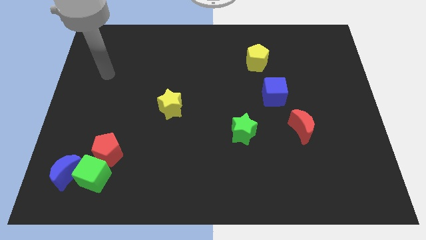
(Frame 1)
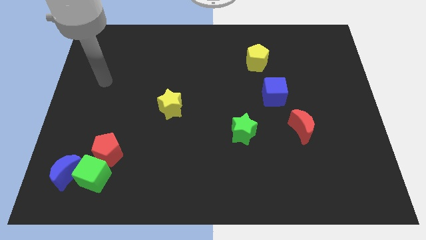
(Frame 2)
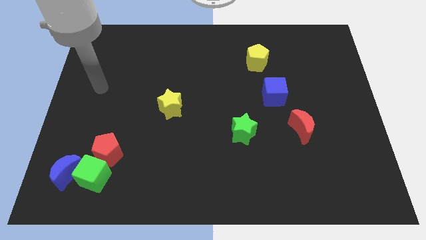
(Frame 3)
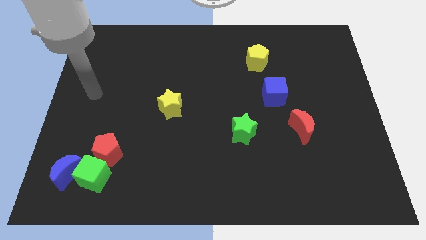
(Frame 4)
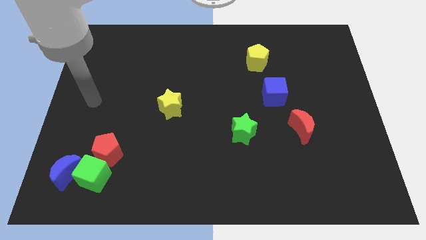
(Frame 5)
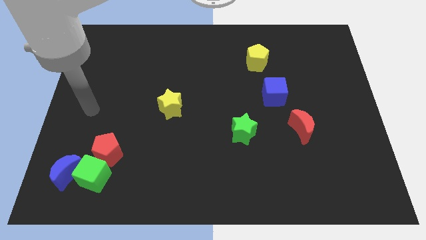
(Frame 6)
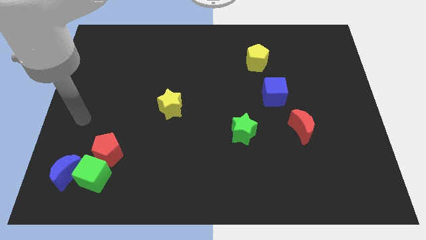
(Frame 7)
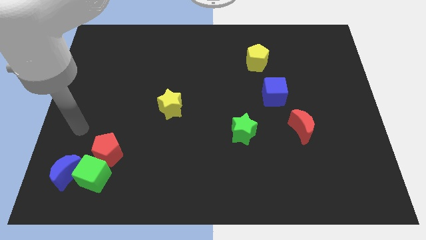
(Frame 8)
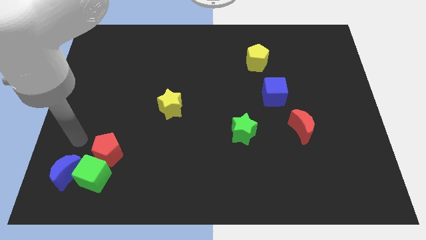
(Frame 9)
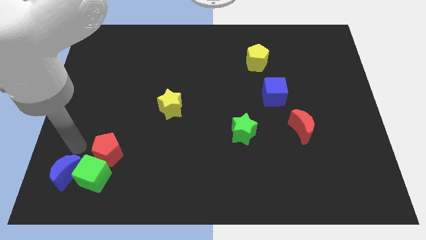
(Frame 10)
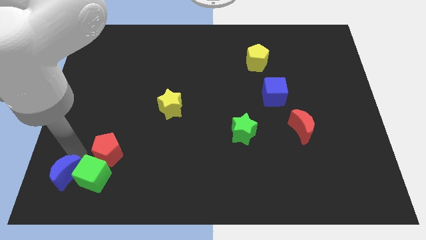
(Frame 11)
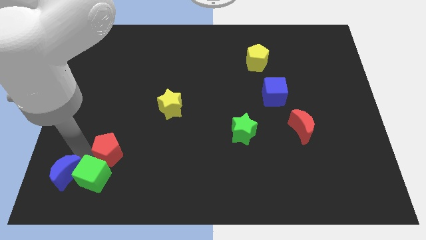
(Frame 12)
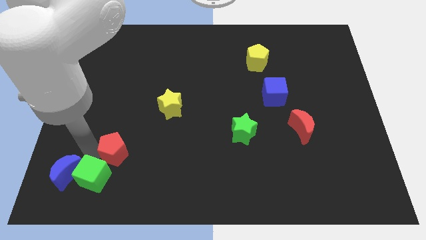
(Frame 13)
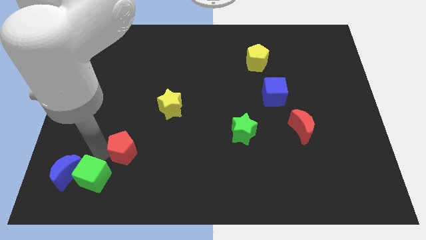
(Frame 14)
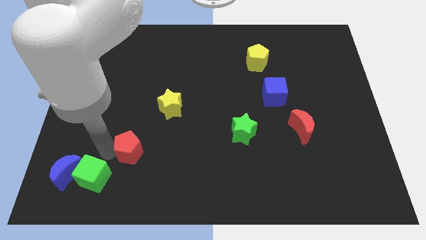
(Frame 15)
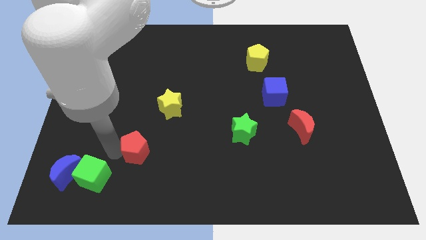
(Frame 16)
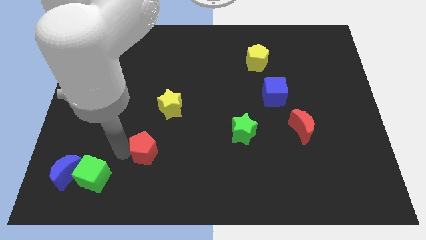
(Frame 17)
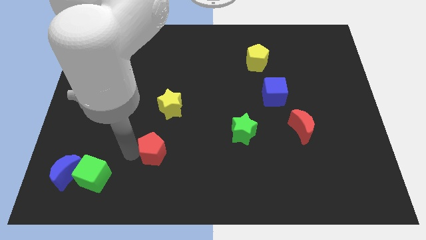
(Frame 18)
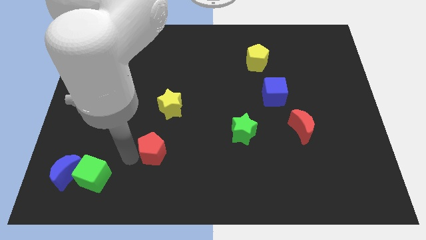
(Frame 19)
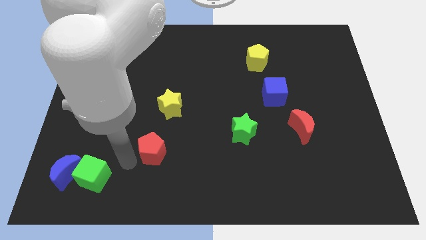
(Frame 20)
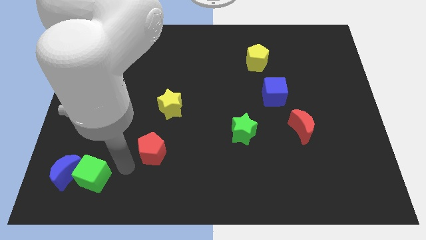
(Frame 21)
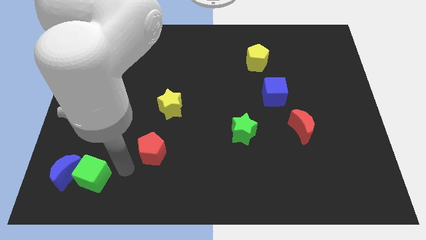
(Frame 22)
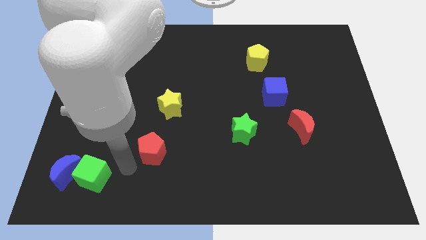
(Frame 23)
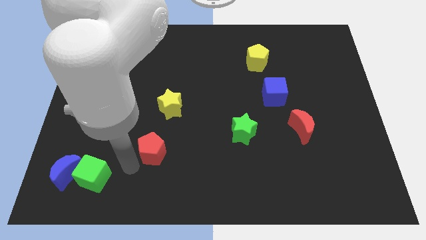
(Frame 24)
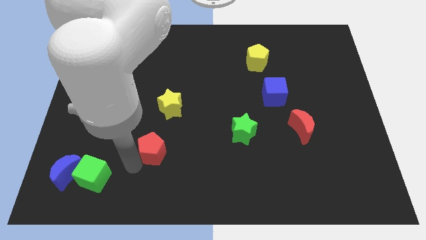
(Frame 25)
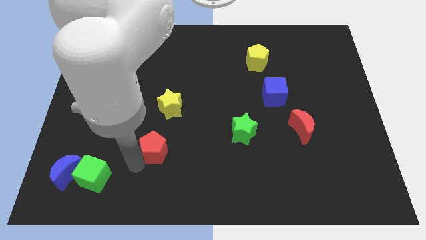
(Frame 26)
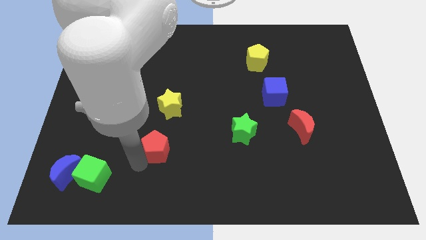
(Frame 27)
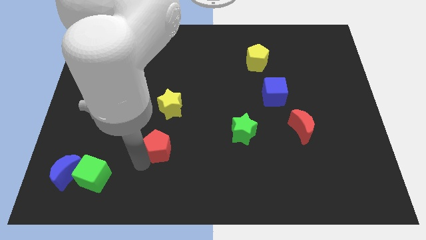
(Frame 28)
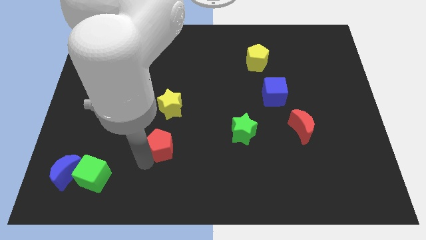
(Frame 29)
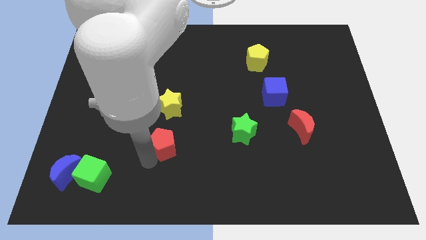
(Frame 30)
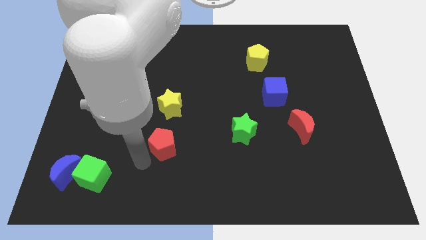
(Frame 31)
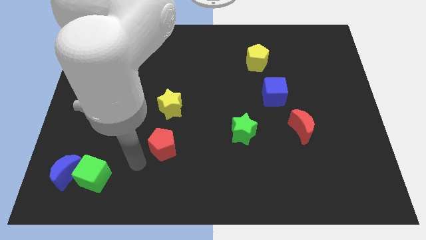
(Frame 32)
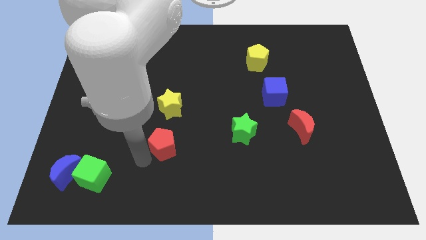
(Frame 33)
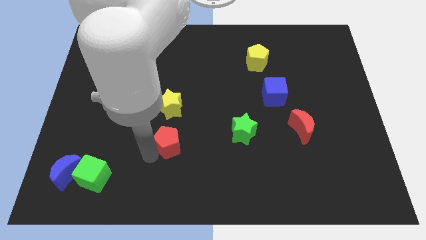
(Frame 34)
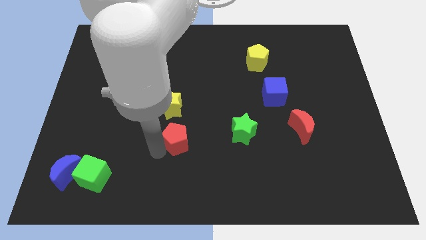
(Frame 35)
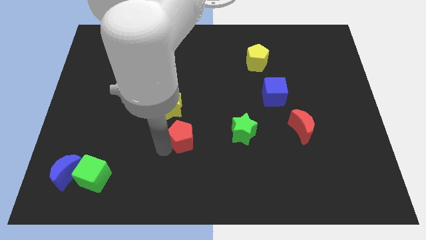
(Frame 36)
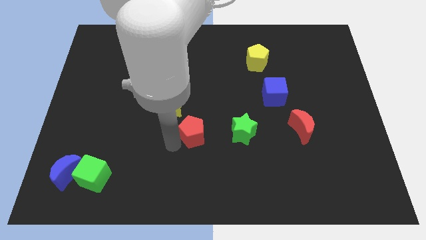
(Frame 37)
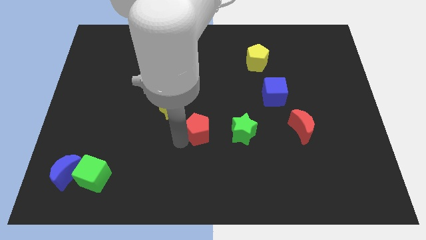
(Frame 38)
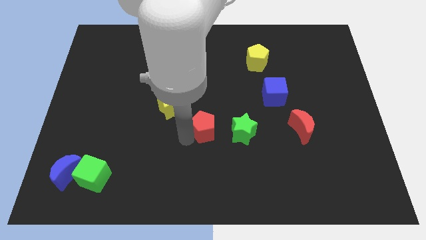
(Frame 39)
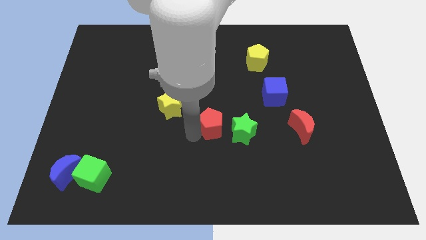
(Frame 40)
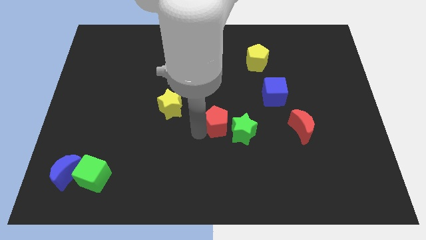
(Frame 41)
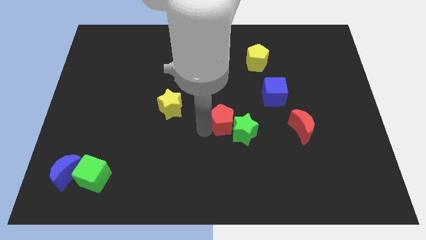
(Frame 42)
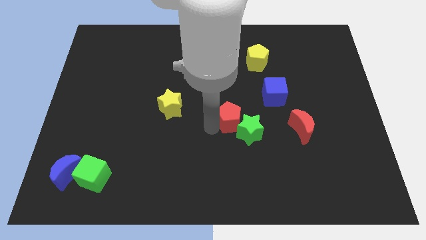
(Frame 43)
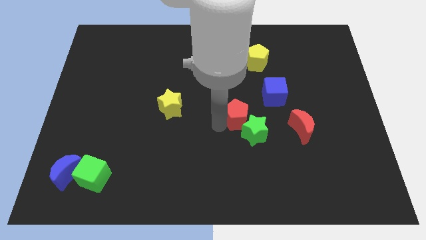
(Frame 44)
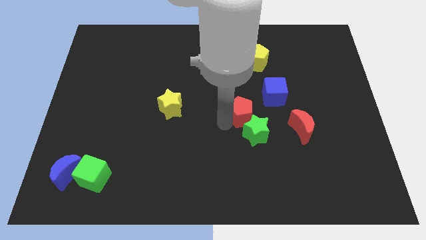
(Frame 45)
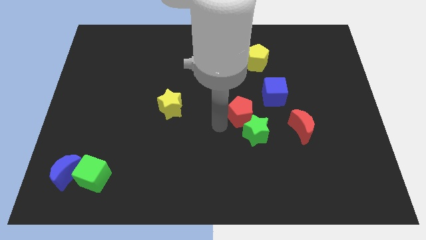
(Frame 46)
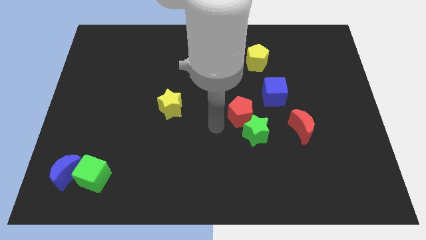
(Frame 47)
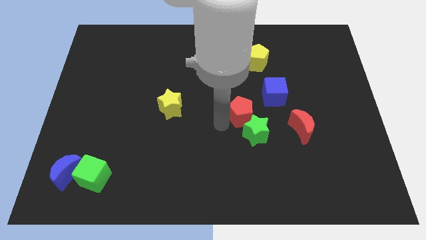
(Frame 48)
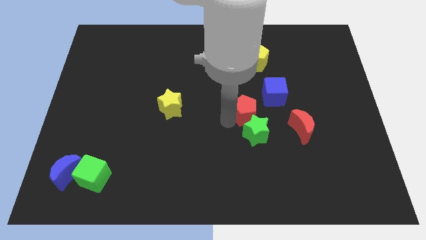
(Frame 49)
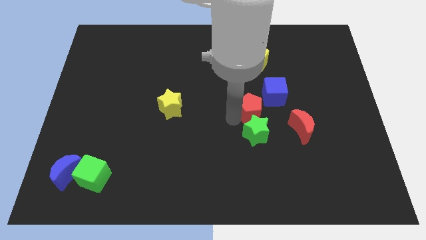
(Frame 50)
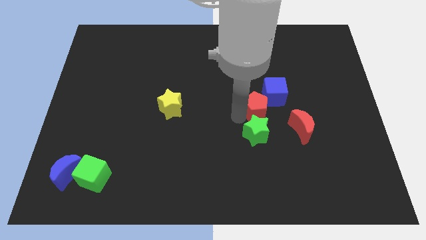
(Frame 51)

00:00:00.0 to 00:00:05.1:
slide the red pentagon below the yellow pentagon

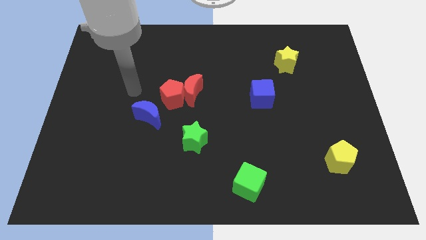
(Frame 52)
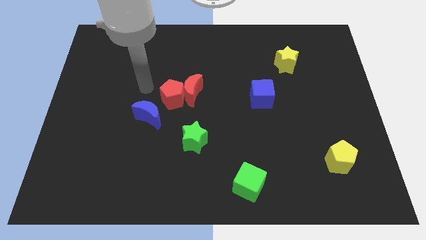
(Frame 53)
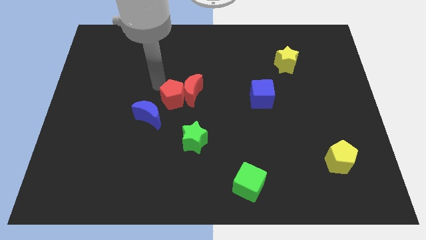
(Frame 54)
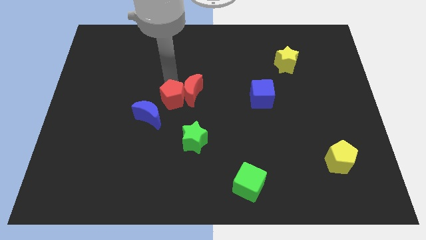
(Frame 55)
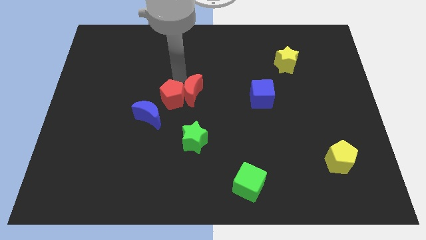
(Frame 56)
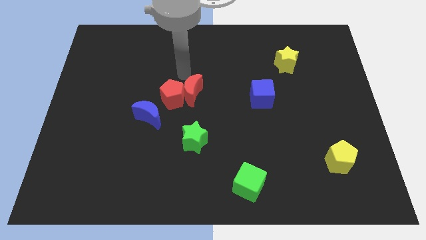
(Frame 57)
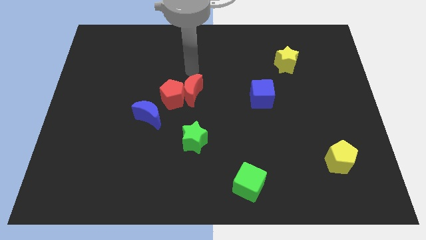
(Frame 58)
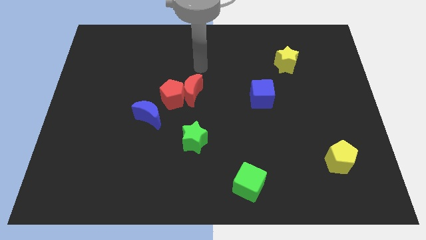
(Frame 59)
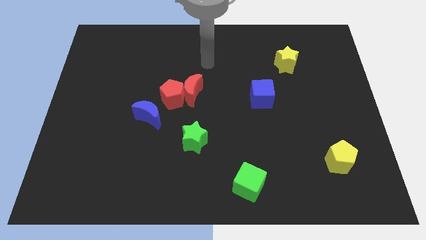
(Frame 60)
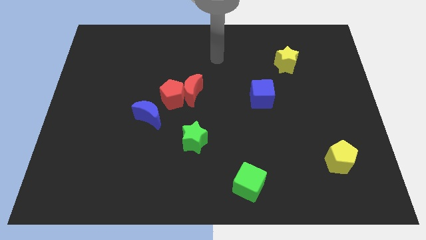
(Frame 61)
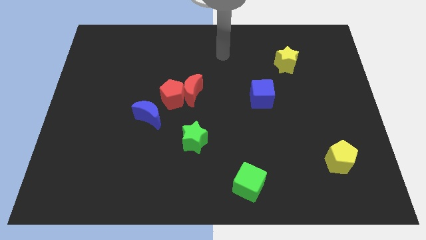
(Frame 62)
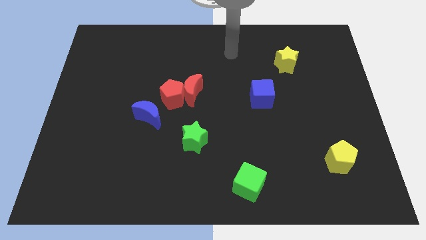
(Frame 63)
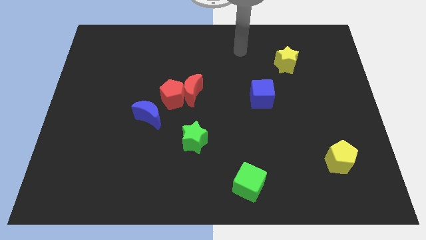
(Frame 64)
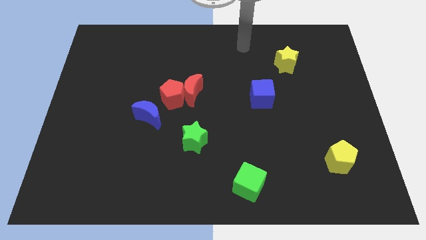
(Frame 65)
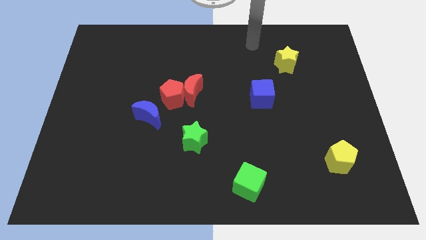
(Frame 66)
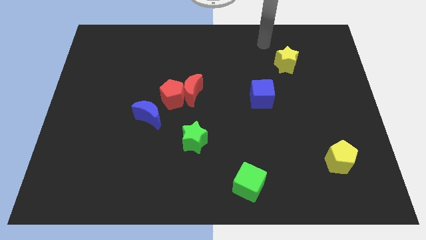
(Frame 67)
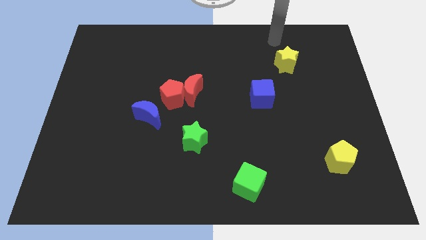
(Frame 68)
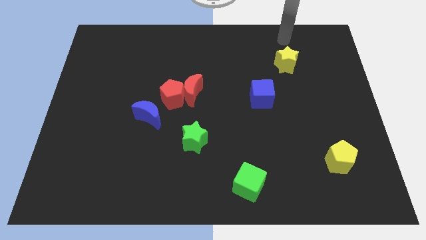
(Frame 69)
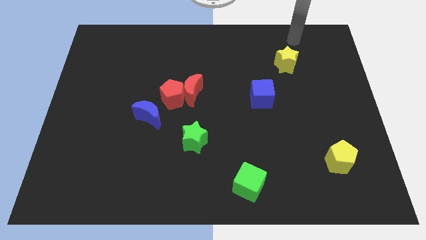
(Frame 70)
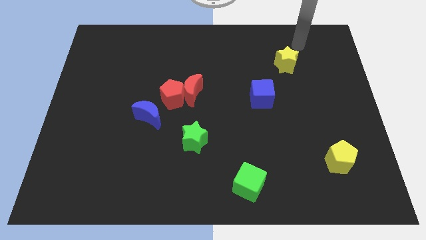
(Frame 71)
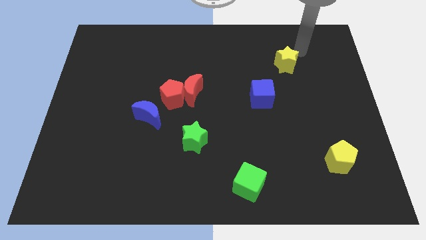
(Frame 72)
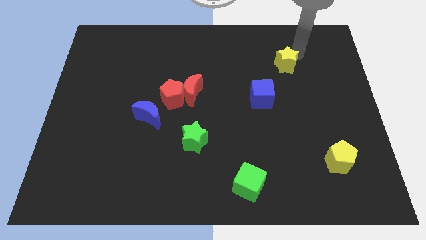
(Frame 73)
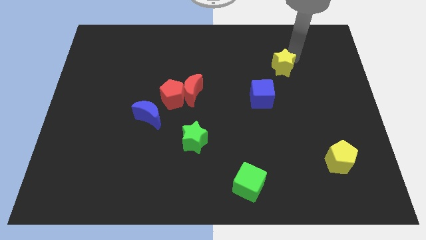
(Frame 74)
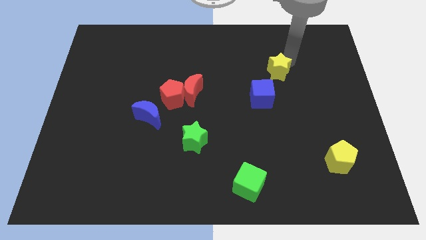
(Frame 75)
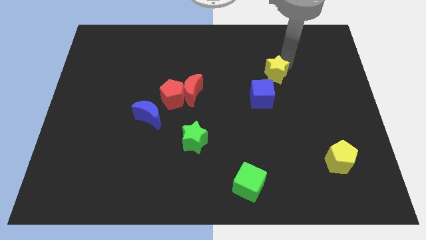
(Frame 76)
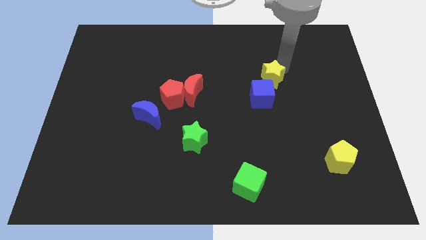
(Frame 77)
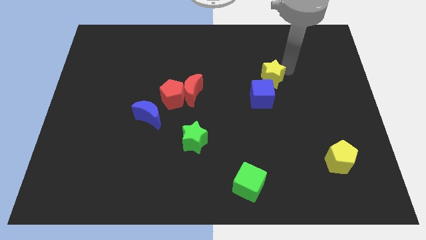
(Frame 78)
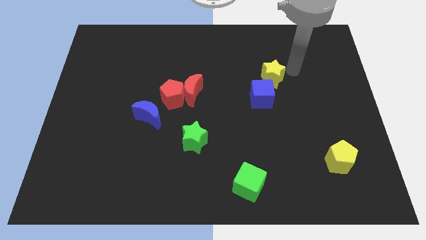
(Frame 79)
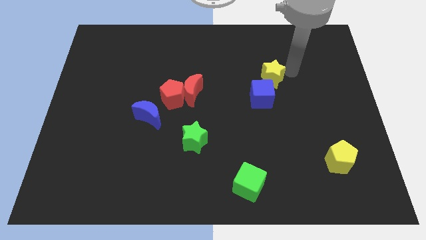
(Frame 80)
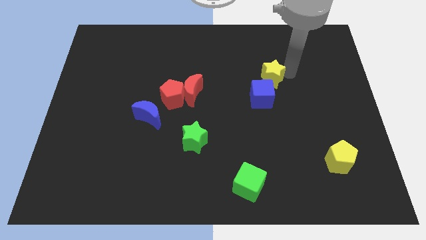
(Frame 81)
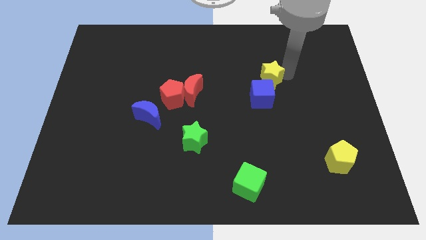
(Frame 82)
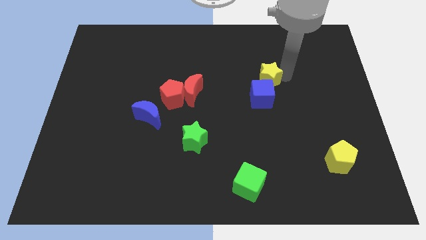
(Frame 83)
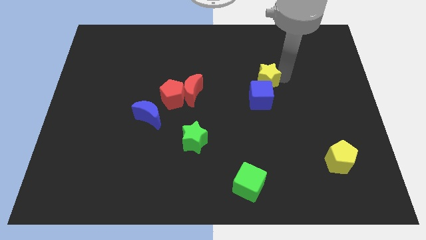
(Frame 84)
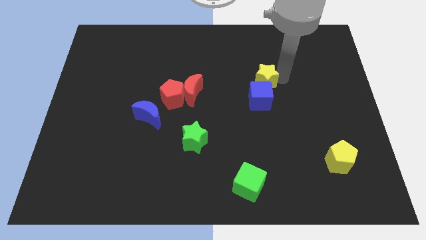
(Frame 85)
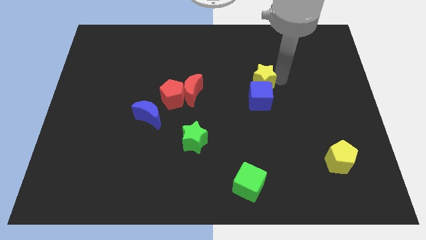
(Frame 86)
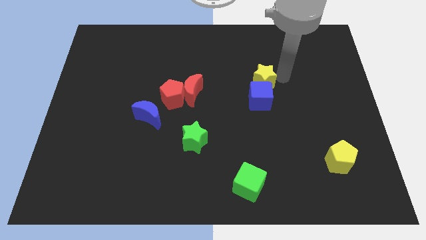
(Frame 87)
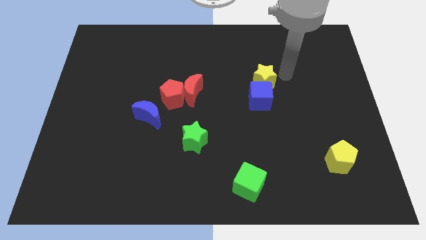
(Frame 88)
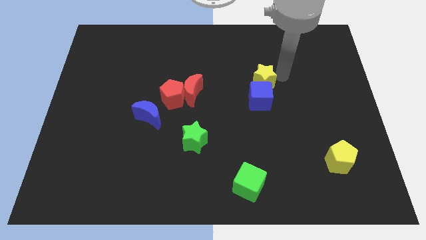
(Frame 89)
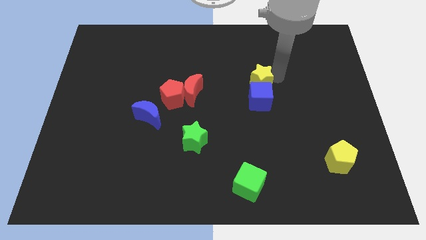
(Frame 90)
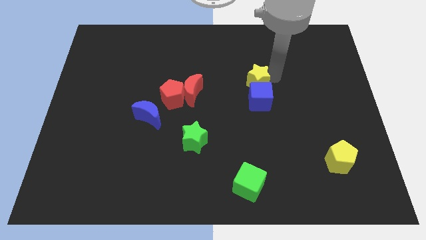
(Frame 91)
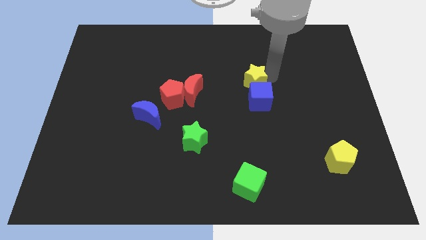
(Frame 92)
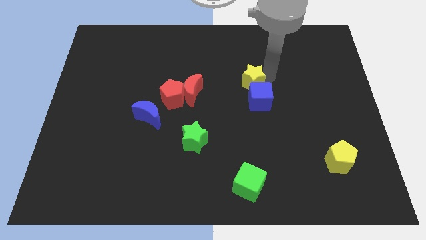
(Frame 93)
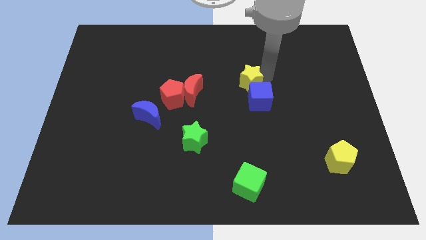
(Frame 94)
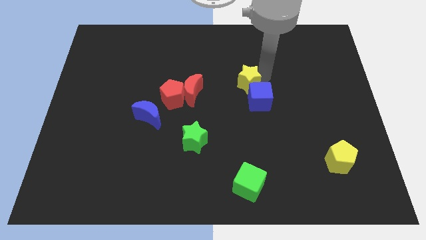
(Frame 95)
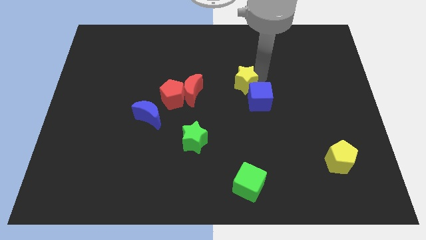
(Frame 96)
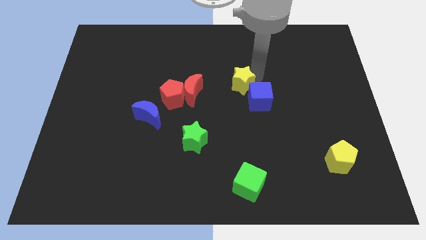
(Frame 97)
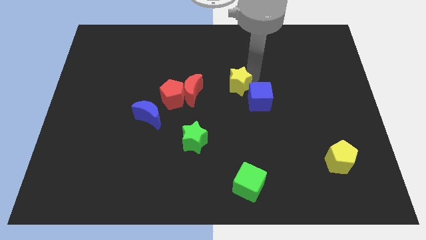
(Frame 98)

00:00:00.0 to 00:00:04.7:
push the yellow star to the left of the blue cube
